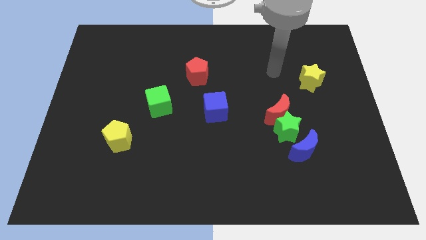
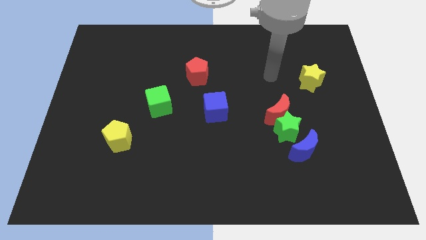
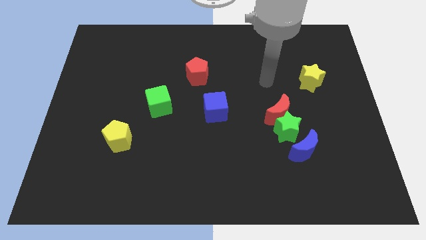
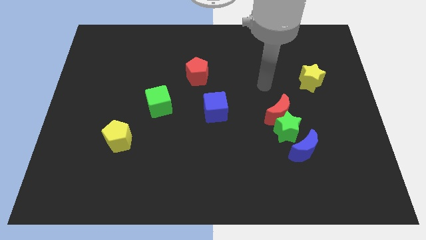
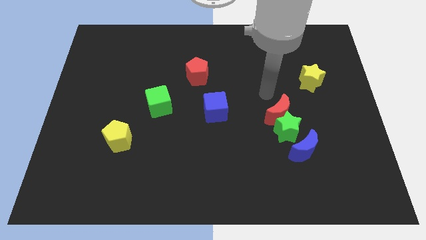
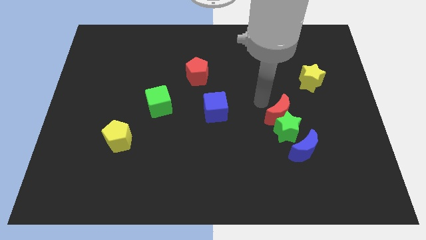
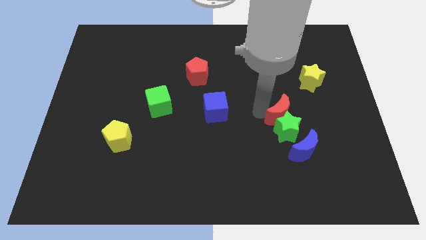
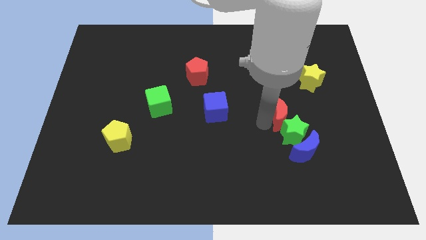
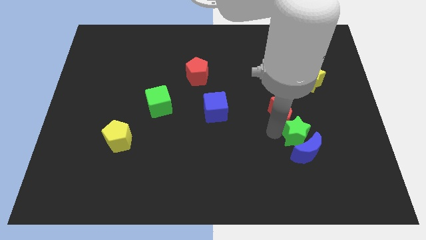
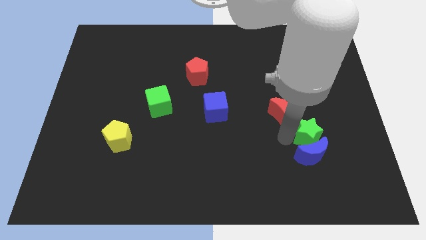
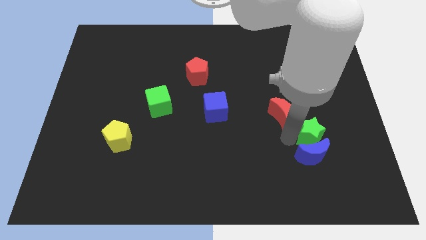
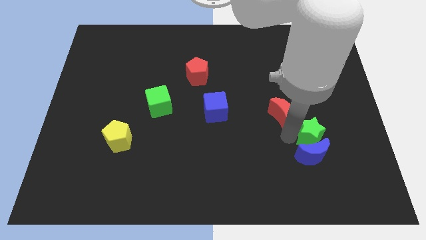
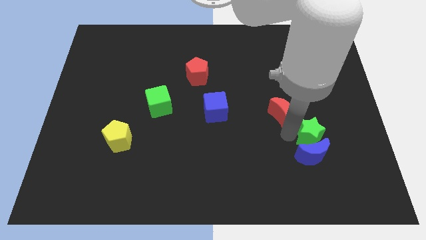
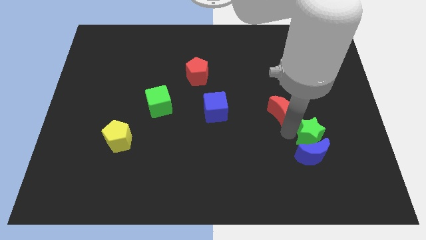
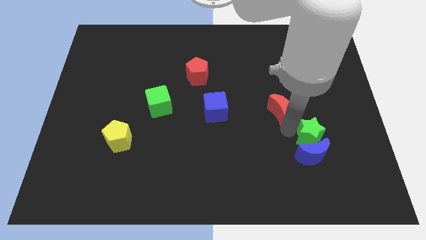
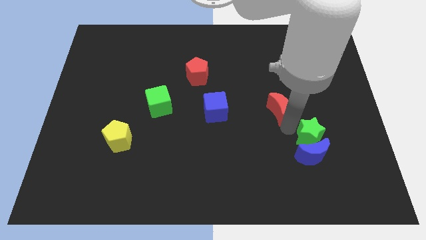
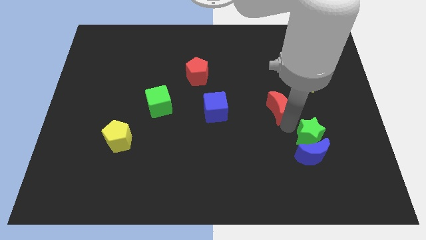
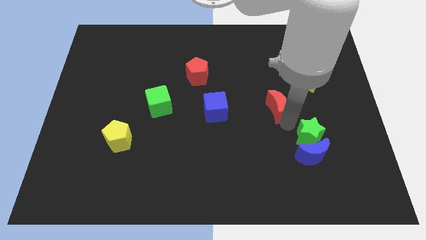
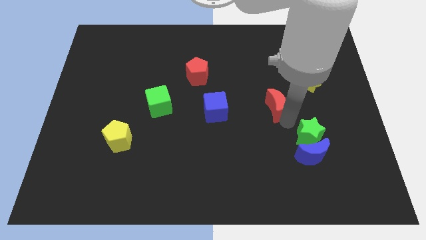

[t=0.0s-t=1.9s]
move the red moon away from the green star

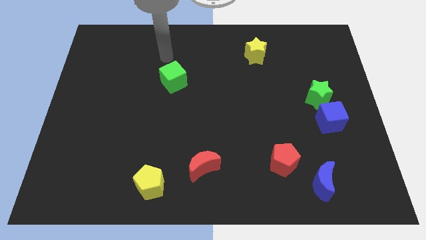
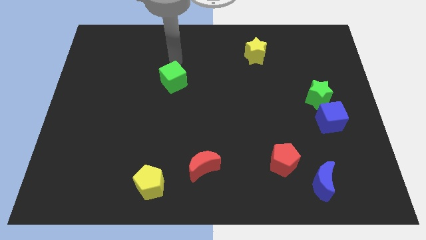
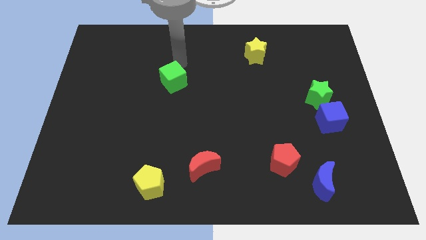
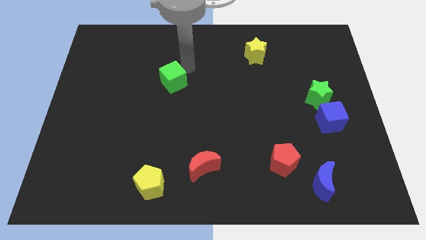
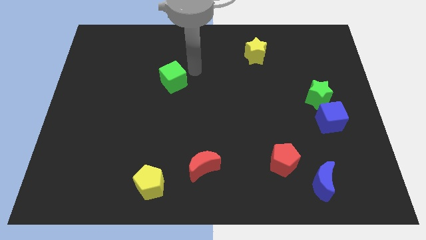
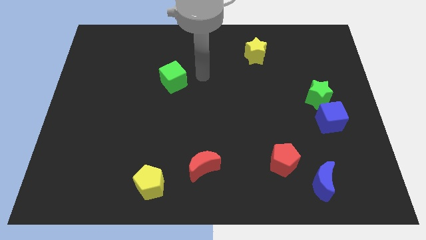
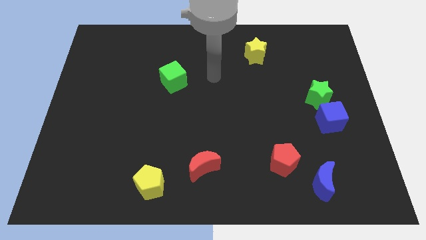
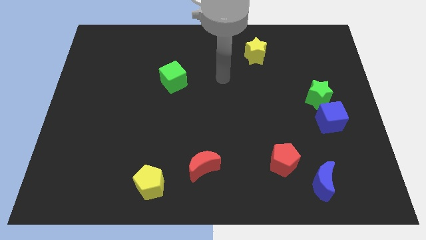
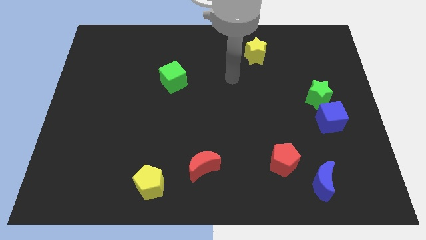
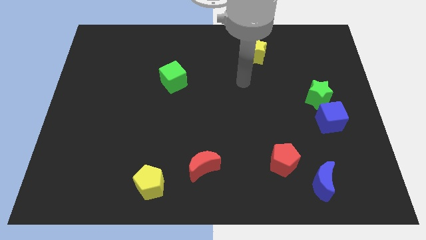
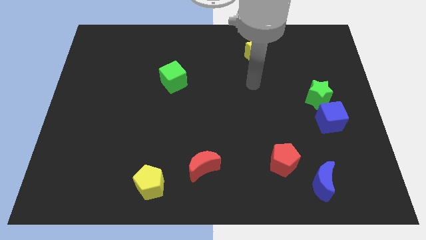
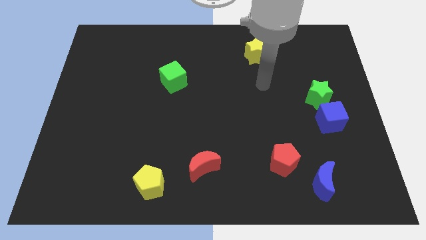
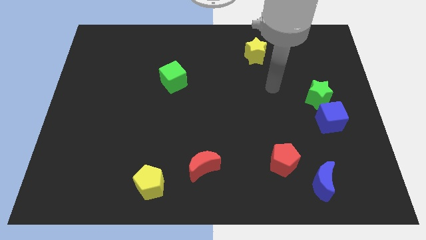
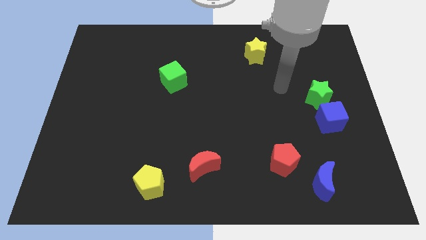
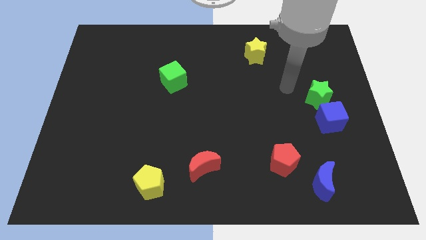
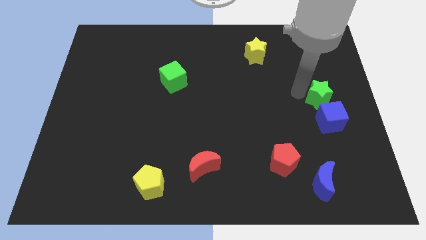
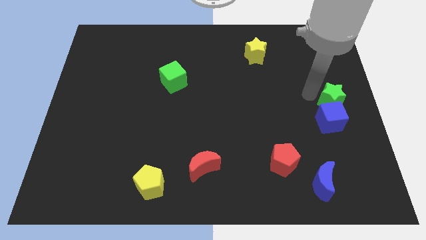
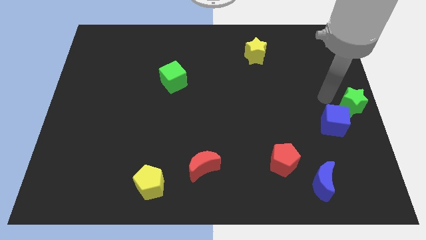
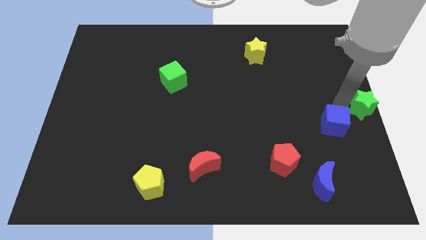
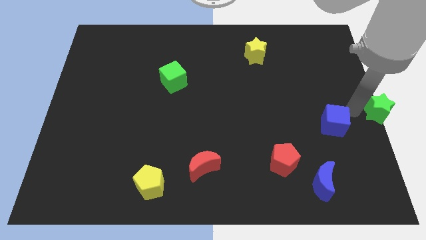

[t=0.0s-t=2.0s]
move the blue cube away from the green star

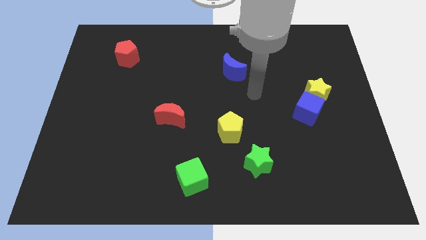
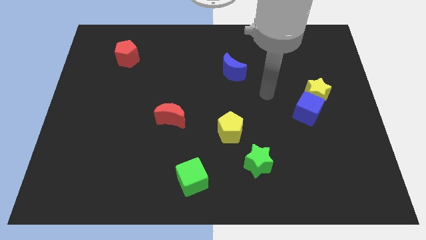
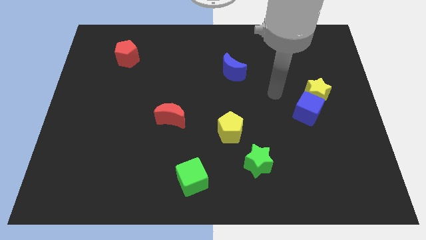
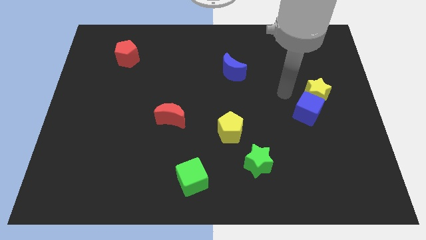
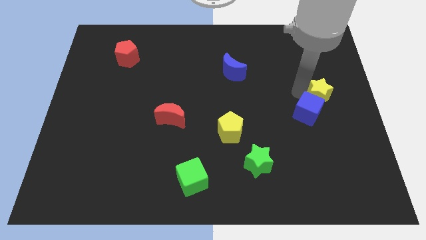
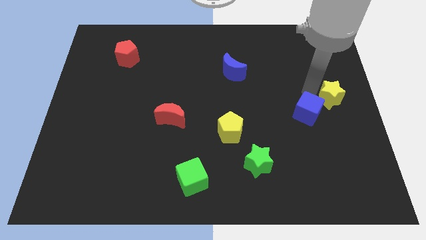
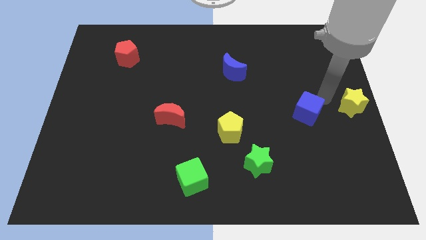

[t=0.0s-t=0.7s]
pull the blue cube apart from the yellow star

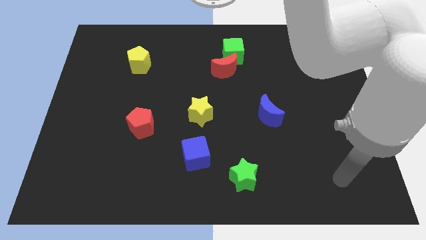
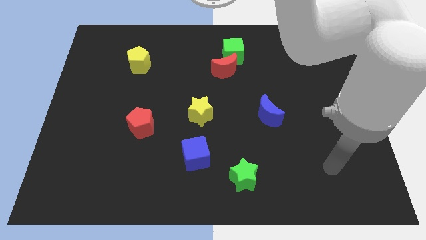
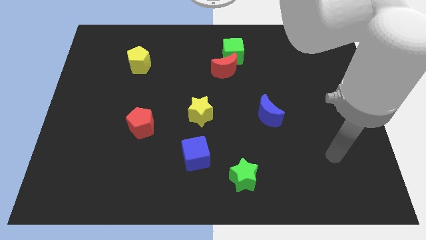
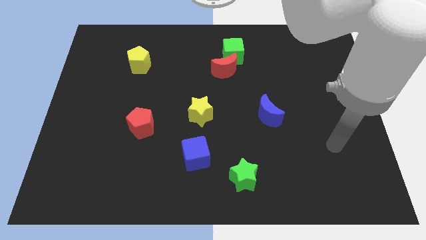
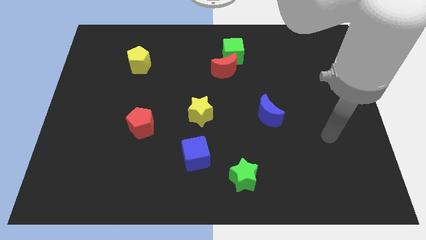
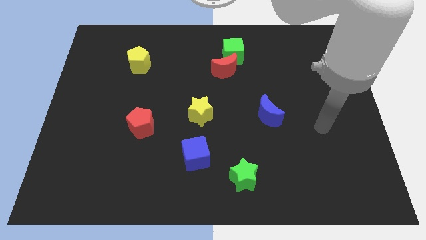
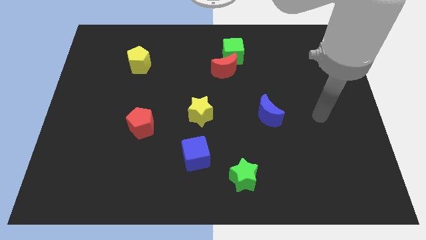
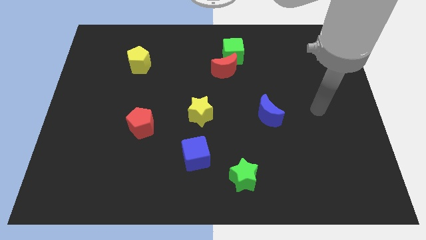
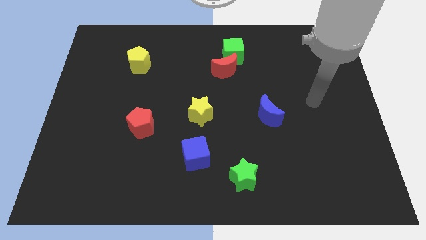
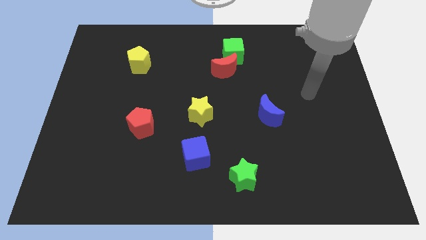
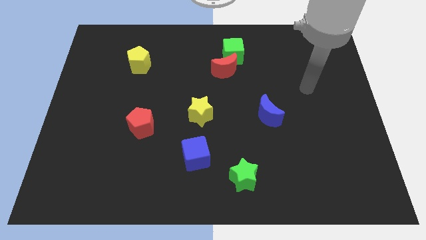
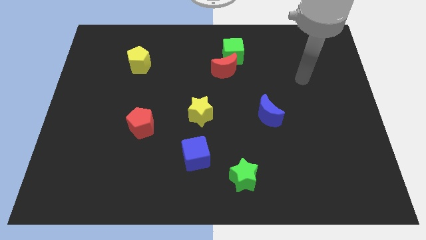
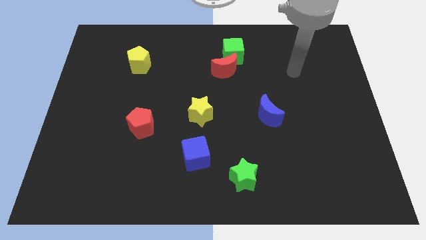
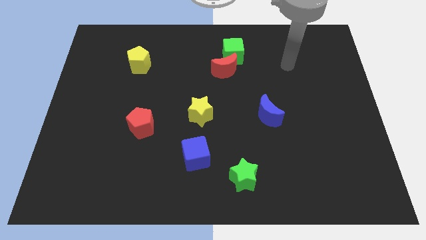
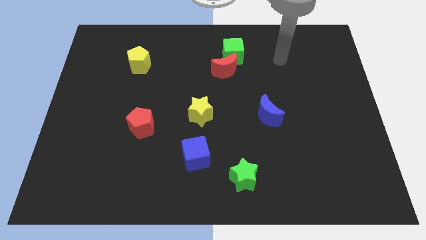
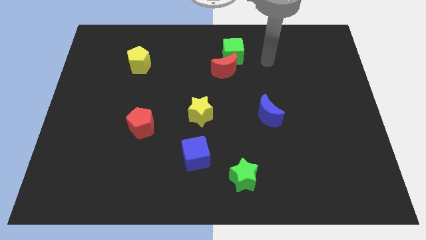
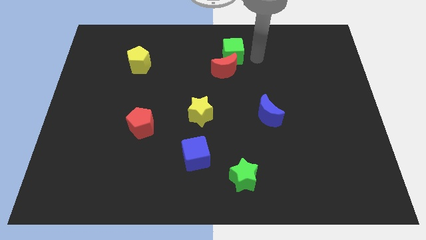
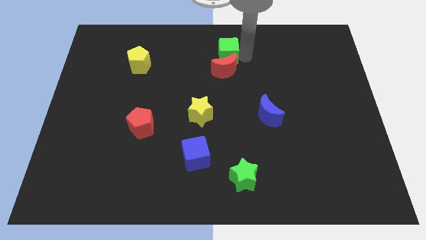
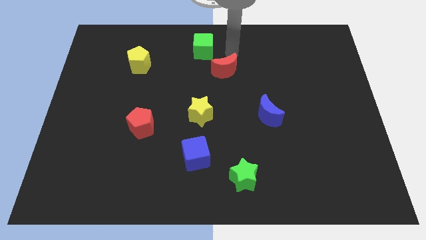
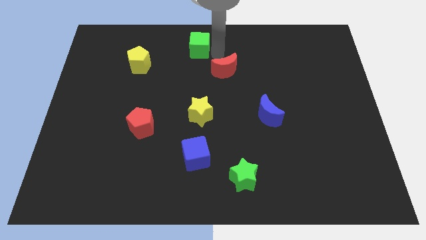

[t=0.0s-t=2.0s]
pull the red moon apart from the green cube

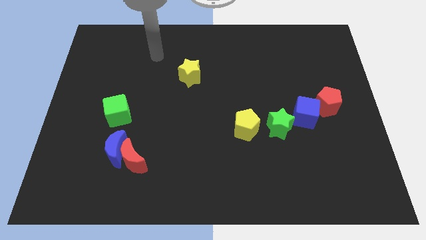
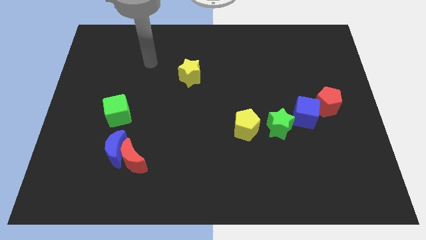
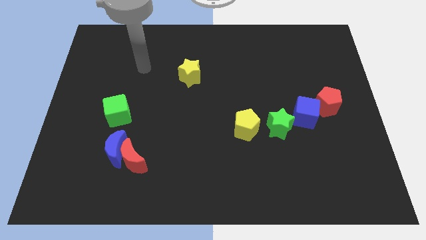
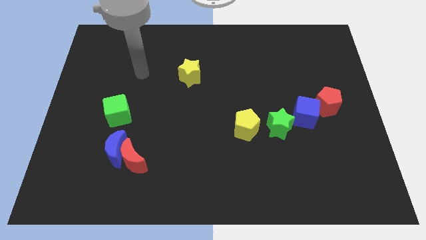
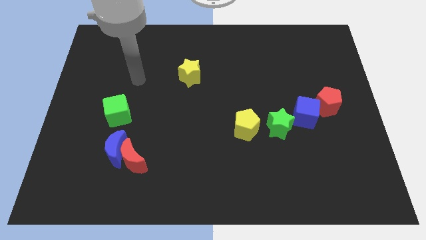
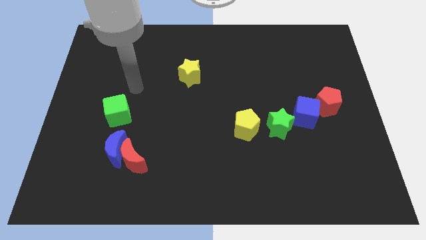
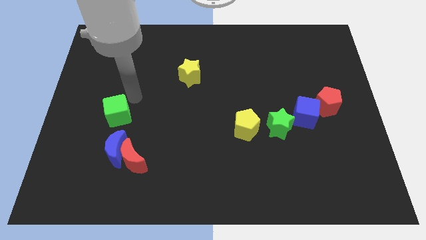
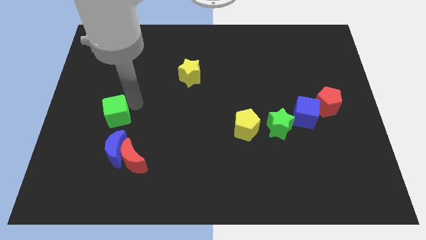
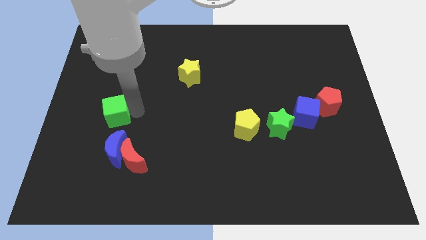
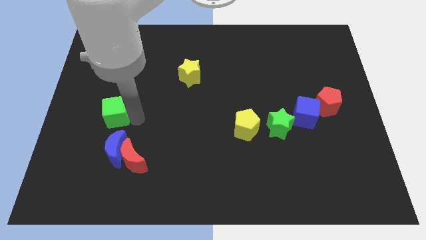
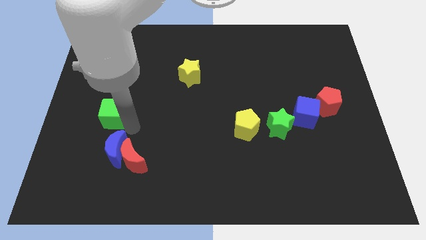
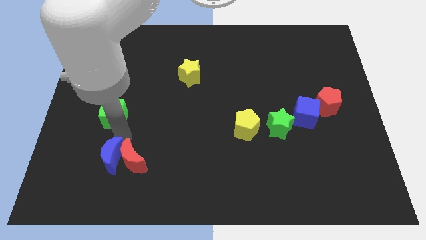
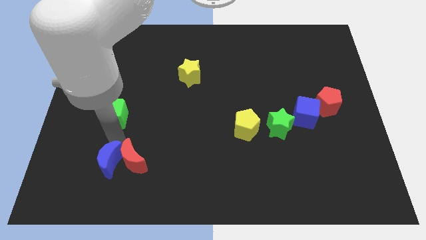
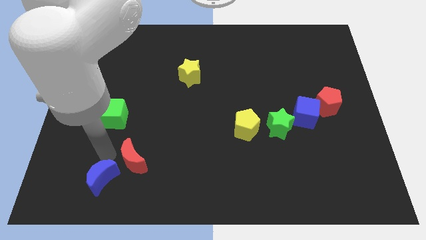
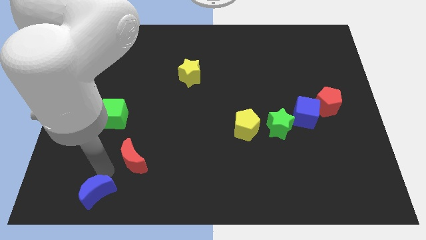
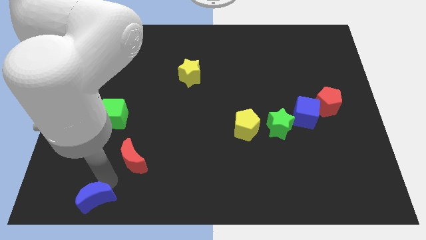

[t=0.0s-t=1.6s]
separate the red moon from the blue moon

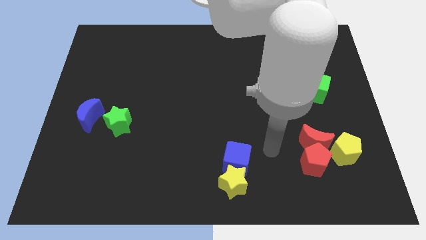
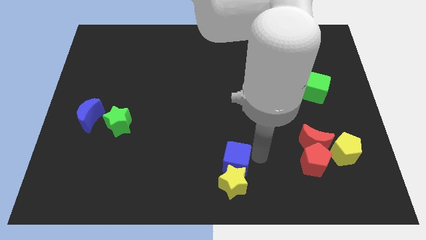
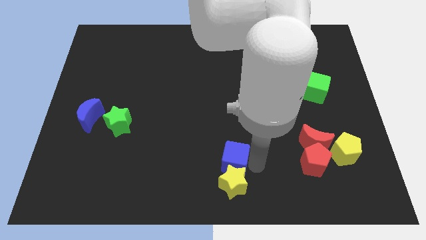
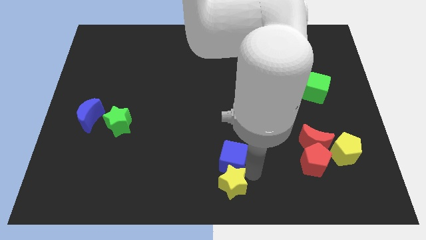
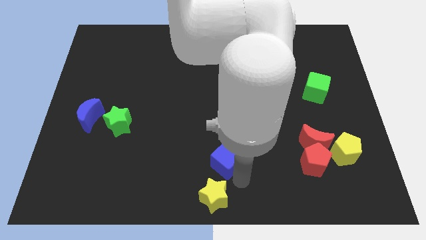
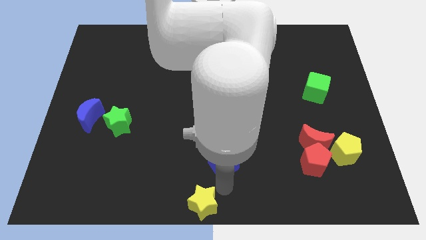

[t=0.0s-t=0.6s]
separate the blue cube from the yellow star

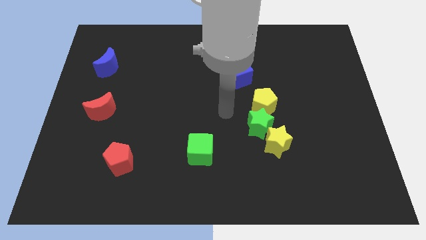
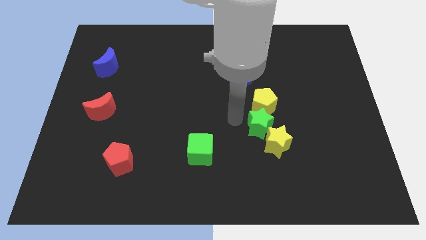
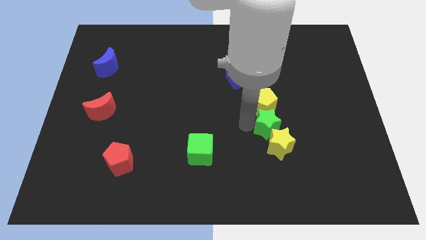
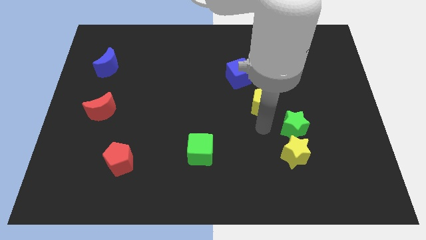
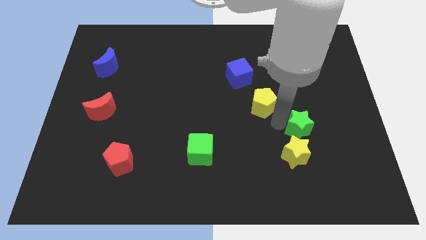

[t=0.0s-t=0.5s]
separate the yellow pentagon from the green star

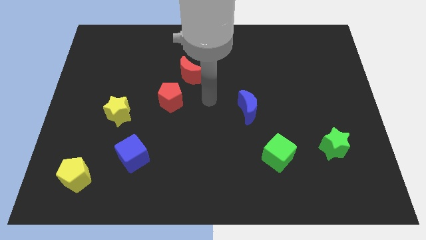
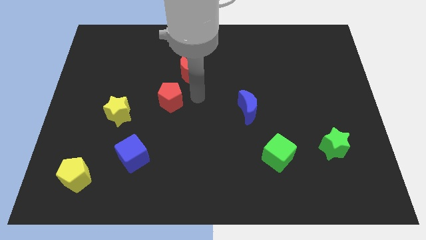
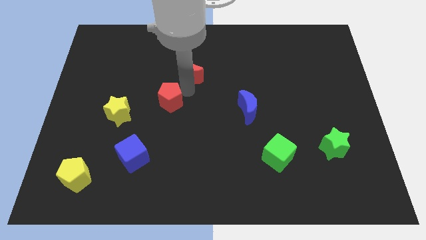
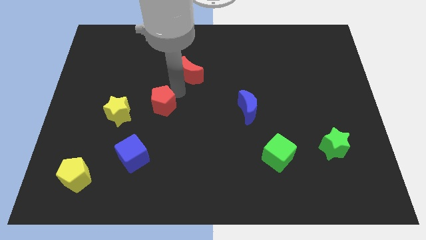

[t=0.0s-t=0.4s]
pull the red moon apart from the red pentagon
